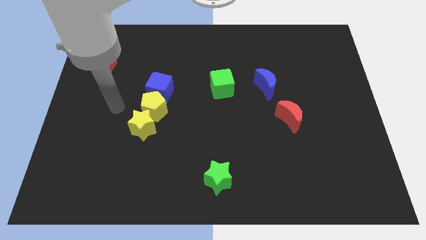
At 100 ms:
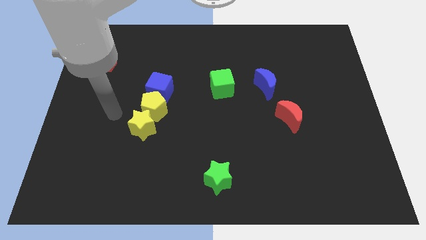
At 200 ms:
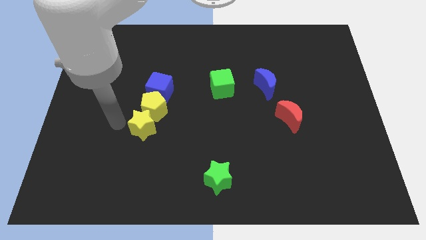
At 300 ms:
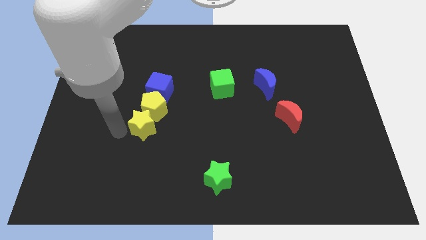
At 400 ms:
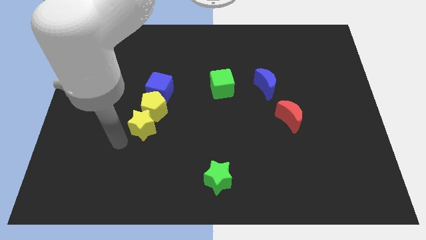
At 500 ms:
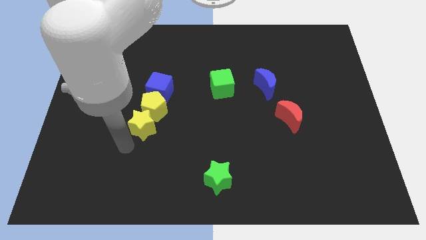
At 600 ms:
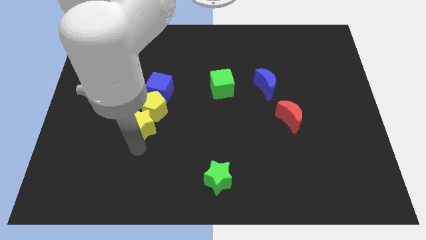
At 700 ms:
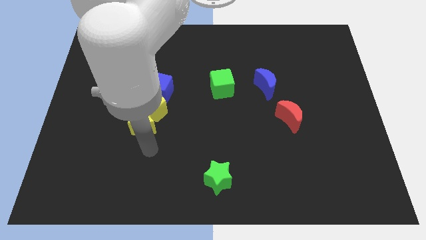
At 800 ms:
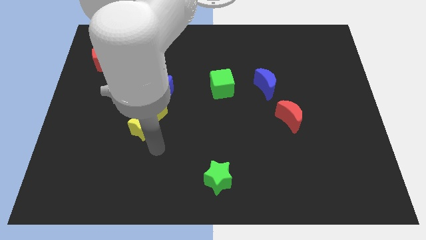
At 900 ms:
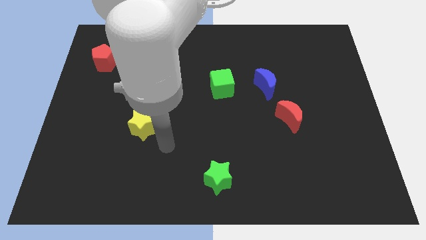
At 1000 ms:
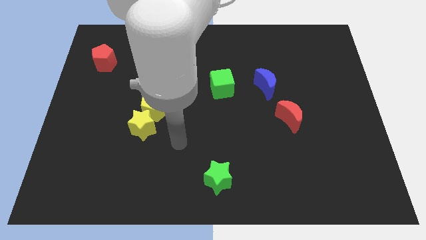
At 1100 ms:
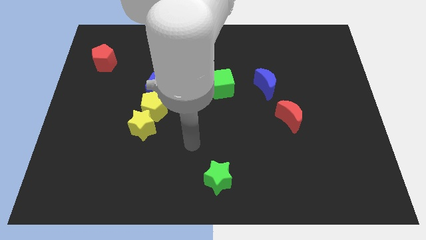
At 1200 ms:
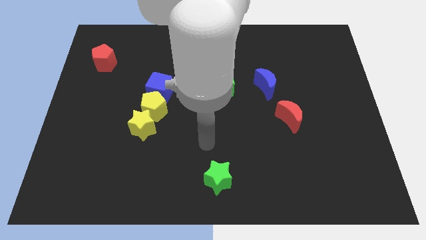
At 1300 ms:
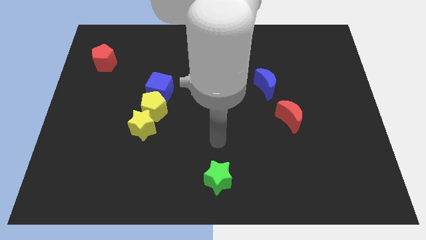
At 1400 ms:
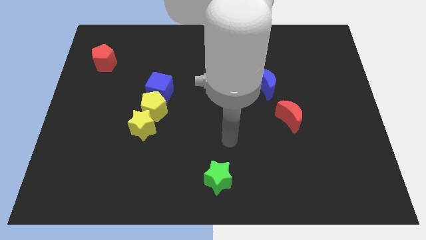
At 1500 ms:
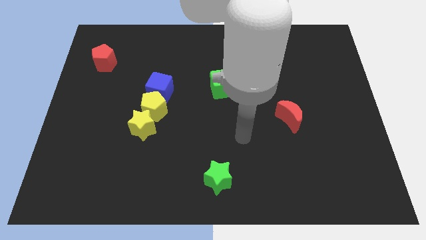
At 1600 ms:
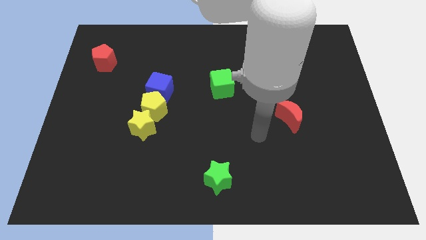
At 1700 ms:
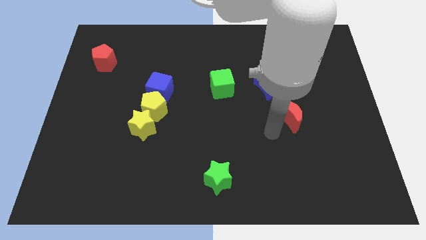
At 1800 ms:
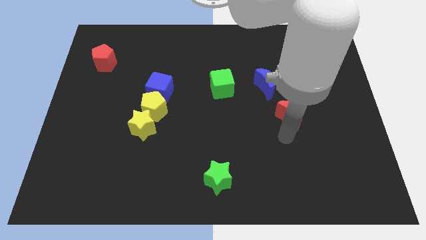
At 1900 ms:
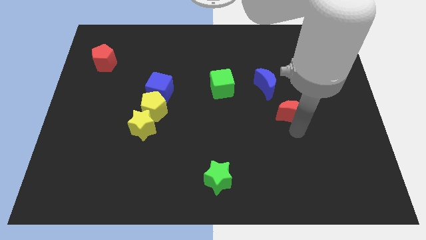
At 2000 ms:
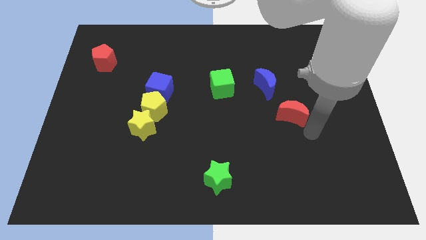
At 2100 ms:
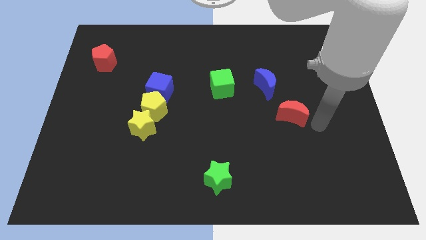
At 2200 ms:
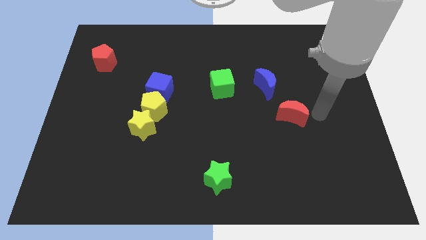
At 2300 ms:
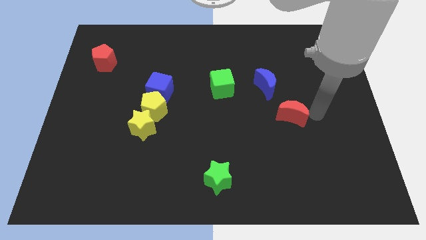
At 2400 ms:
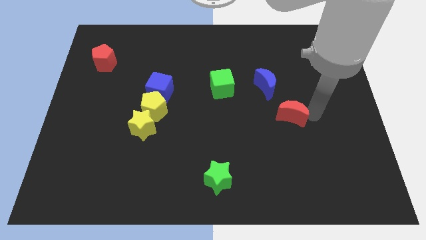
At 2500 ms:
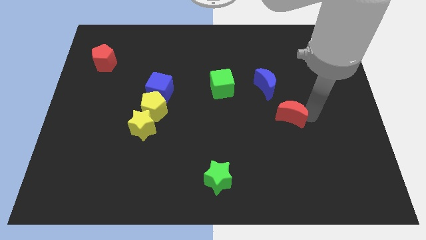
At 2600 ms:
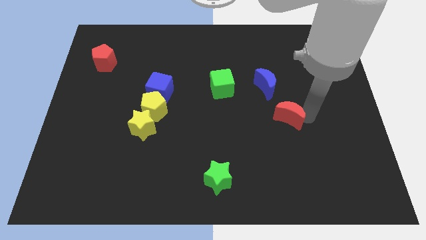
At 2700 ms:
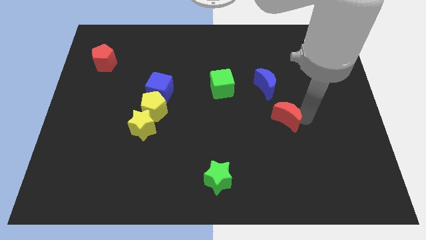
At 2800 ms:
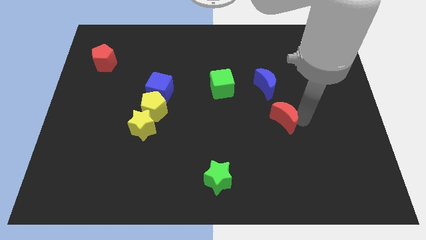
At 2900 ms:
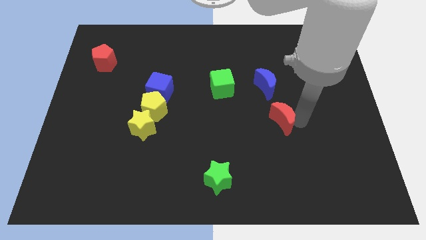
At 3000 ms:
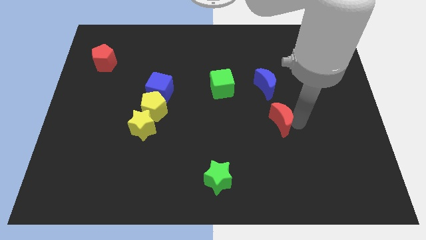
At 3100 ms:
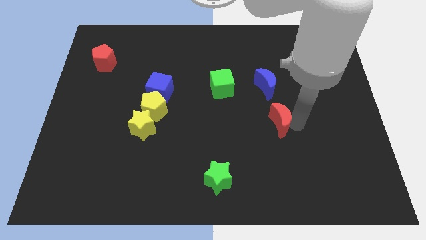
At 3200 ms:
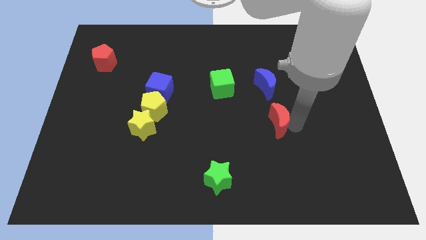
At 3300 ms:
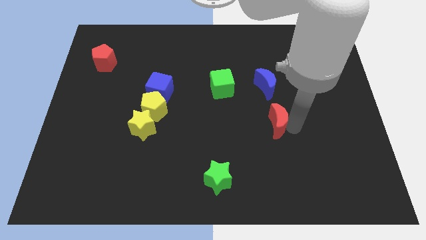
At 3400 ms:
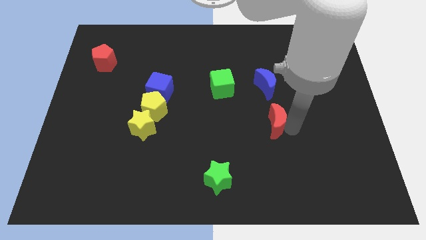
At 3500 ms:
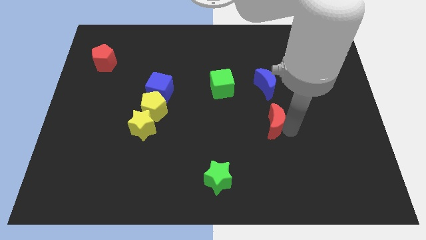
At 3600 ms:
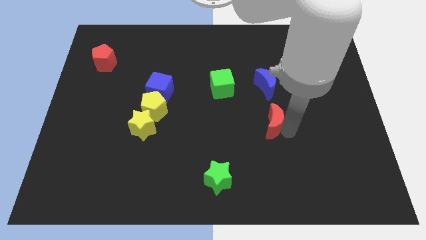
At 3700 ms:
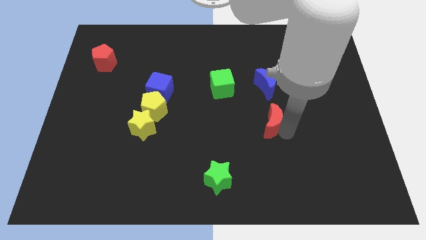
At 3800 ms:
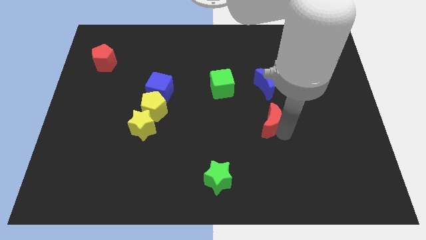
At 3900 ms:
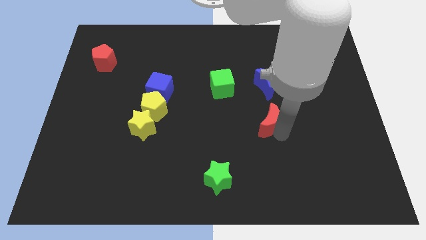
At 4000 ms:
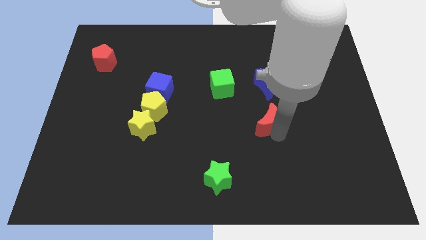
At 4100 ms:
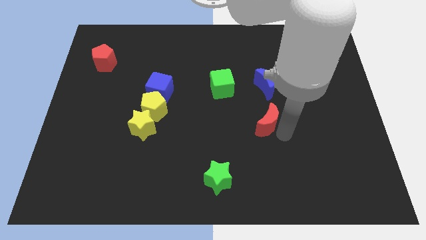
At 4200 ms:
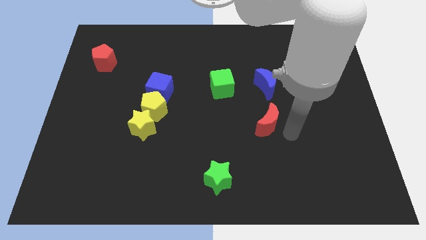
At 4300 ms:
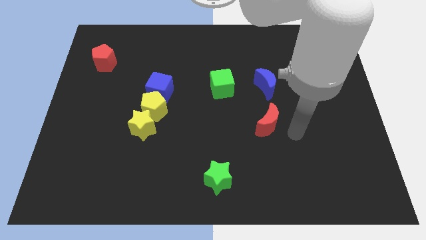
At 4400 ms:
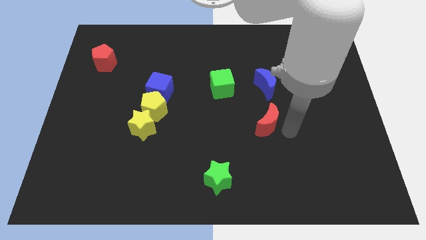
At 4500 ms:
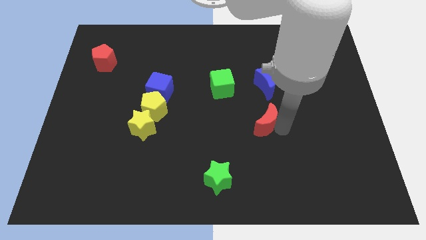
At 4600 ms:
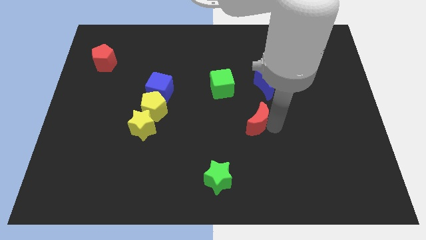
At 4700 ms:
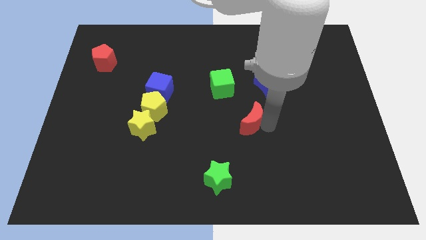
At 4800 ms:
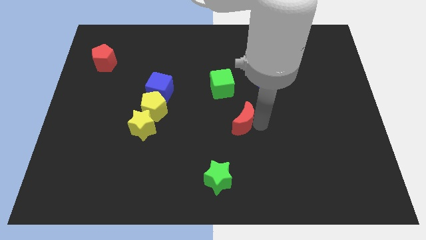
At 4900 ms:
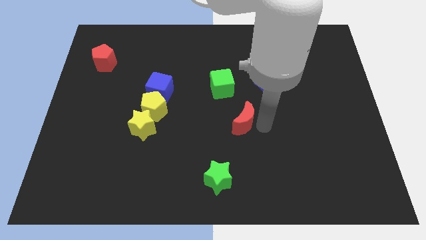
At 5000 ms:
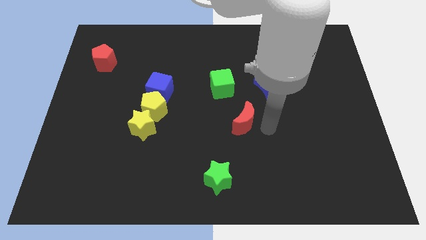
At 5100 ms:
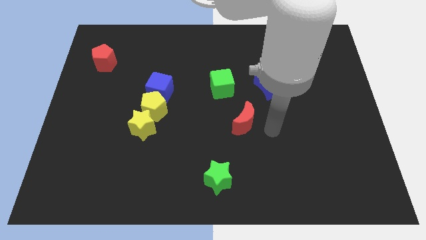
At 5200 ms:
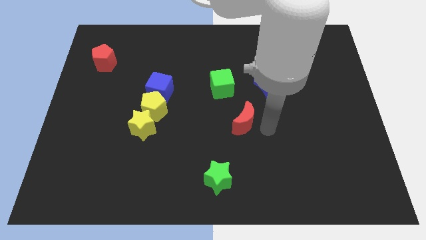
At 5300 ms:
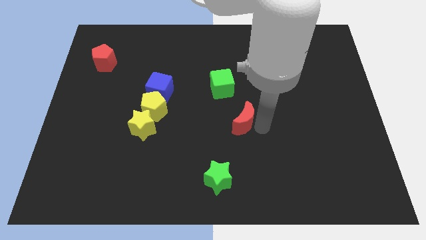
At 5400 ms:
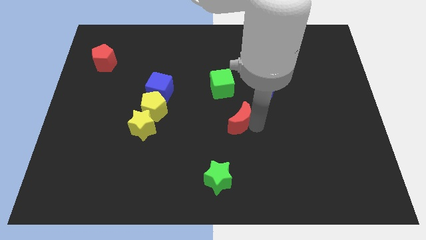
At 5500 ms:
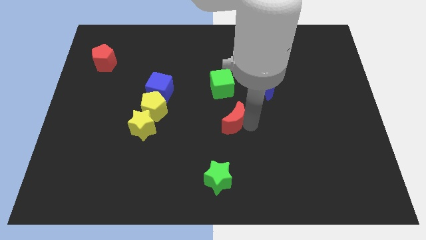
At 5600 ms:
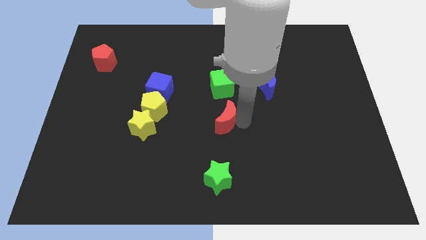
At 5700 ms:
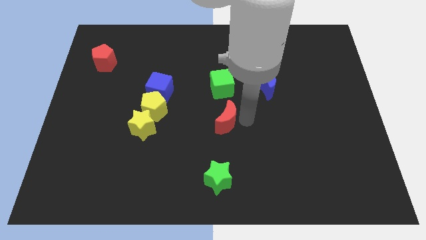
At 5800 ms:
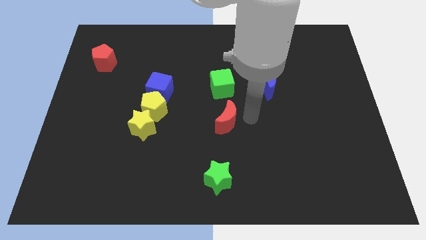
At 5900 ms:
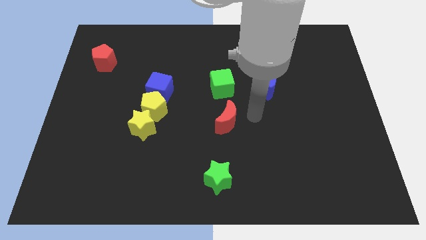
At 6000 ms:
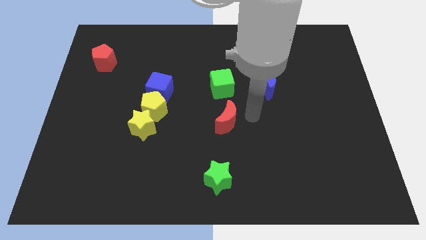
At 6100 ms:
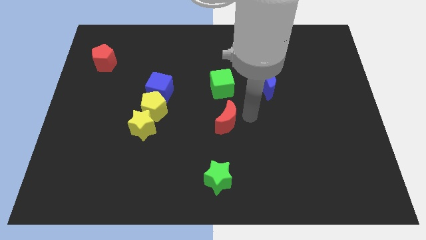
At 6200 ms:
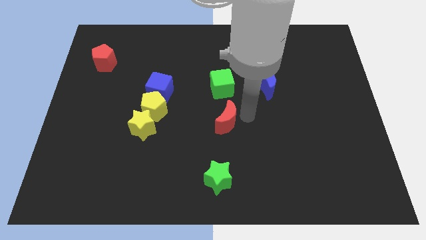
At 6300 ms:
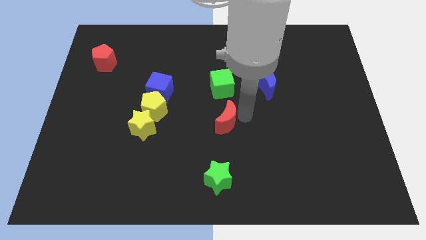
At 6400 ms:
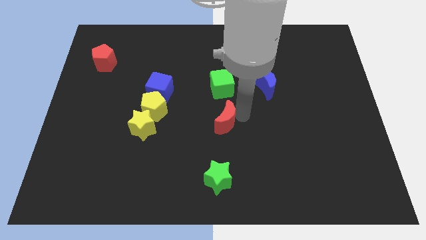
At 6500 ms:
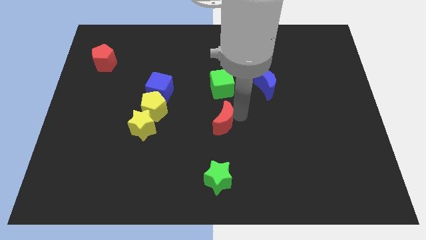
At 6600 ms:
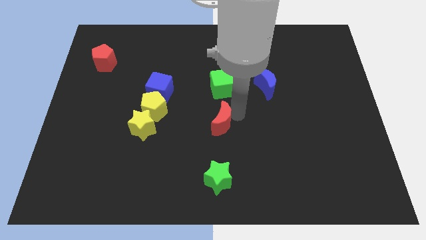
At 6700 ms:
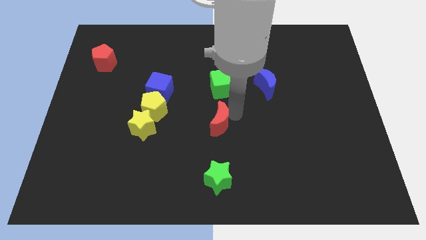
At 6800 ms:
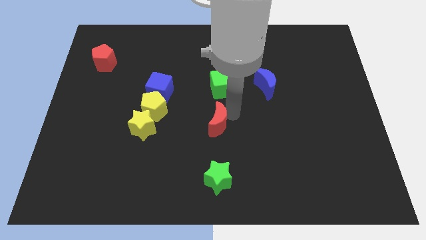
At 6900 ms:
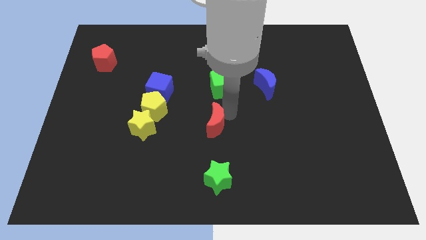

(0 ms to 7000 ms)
slide the red moon to the right of the yellow star
